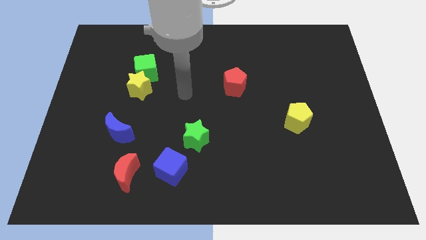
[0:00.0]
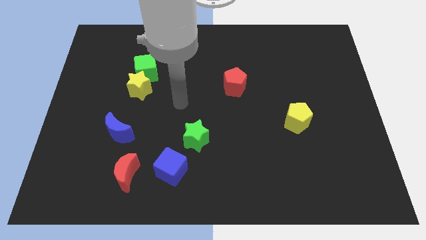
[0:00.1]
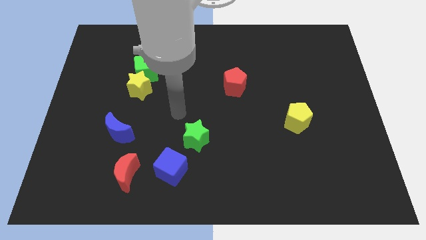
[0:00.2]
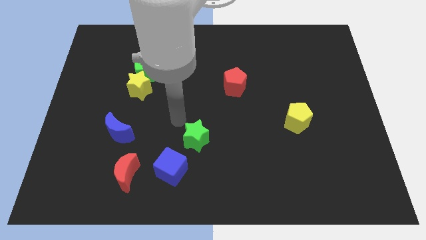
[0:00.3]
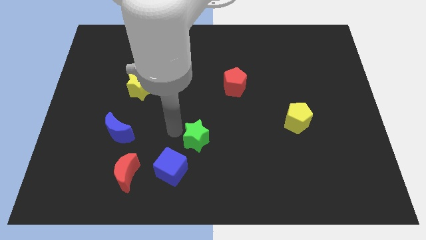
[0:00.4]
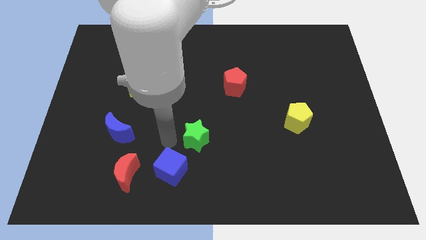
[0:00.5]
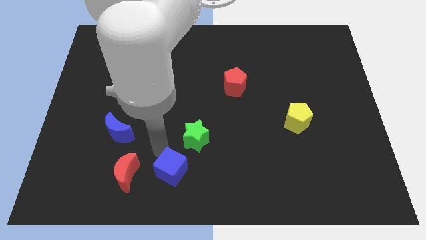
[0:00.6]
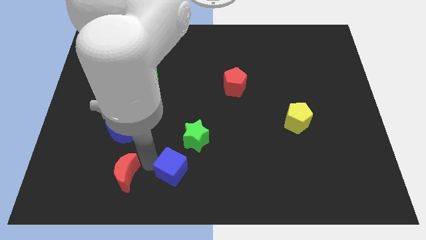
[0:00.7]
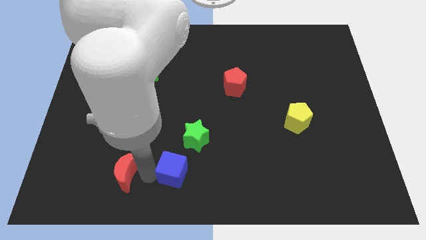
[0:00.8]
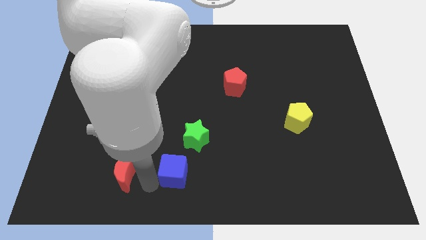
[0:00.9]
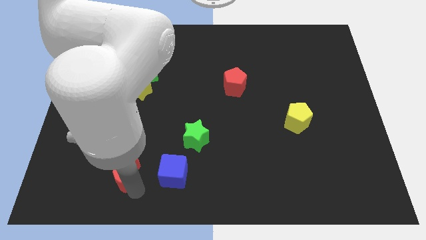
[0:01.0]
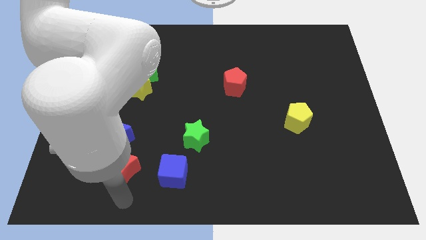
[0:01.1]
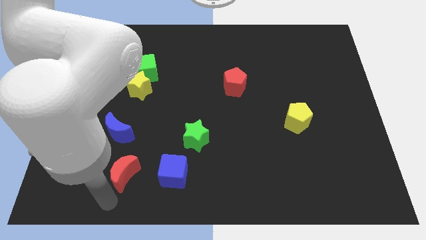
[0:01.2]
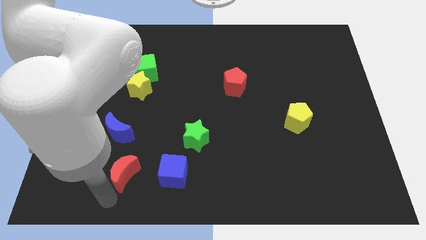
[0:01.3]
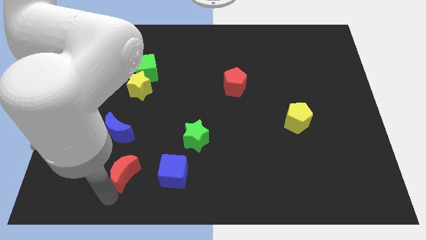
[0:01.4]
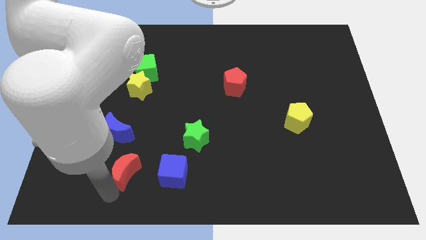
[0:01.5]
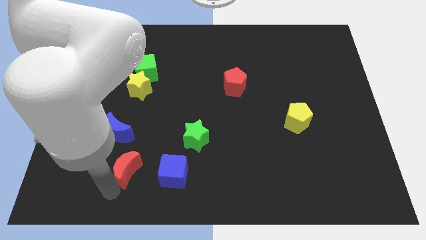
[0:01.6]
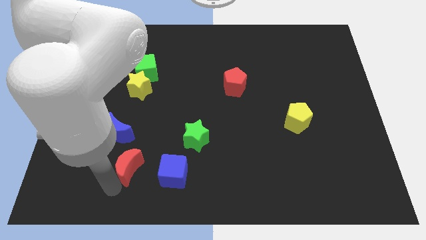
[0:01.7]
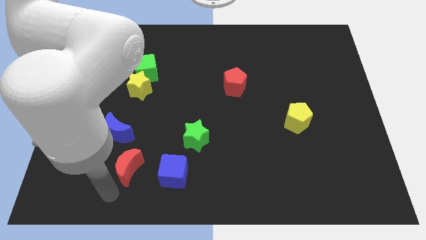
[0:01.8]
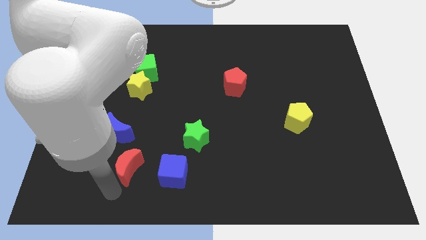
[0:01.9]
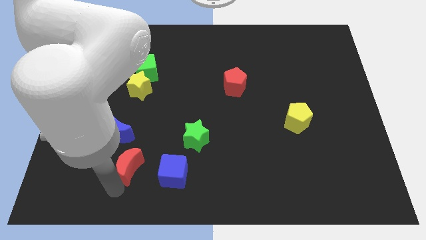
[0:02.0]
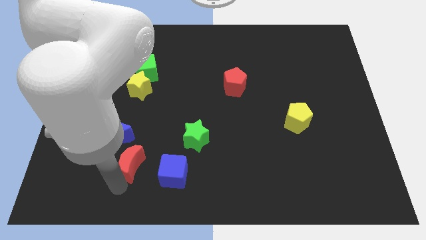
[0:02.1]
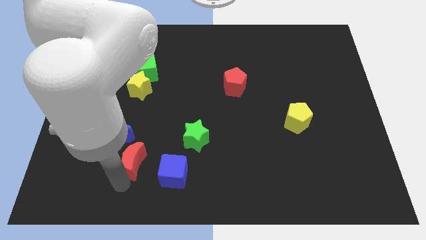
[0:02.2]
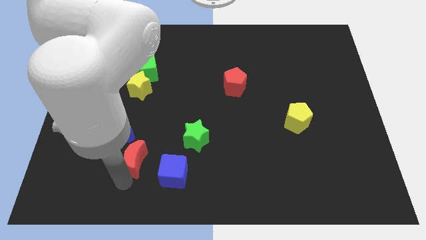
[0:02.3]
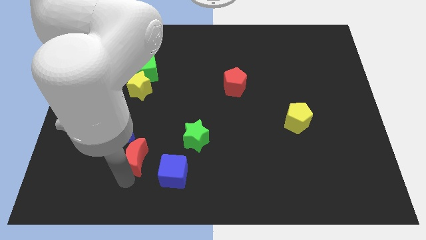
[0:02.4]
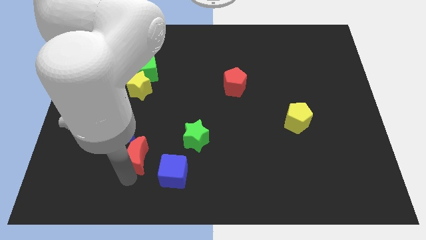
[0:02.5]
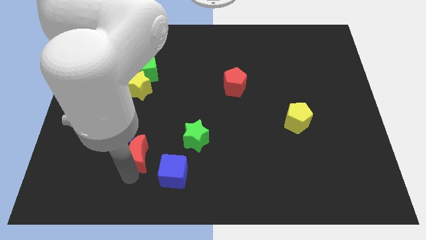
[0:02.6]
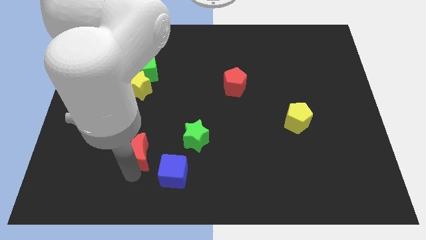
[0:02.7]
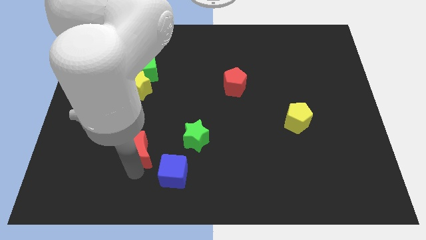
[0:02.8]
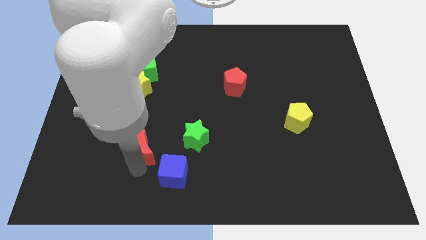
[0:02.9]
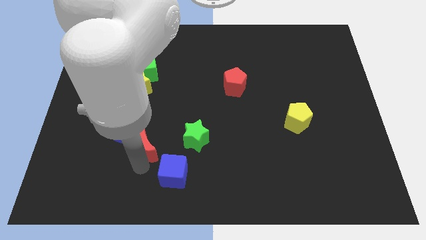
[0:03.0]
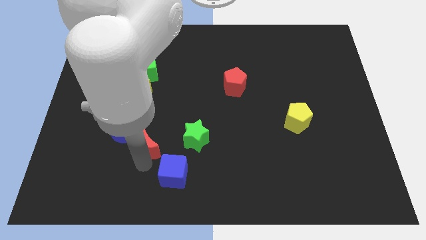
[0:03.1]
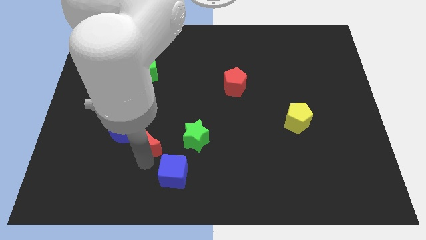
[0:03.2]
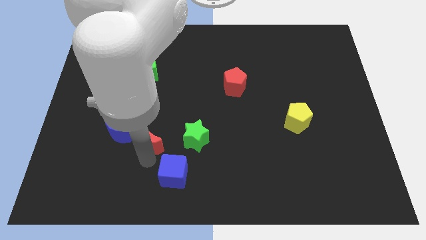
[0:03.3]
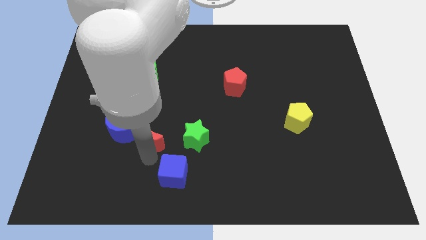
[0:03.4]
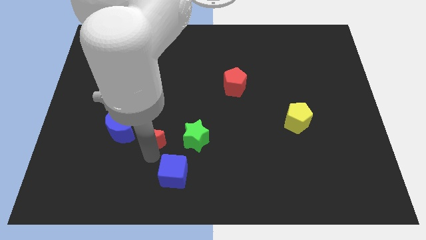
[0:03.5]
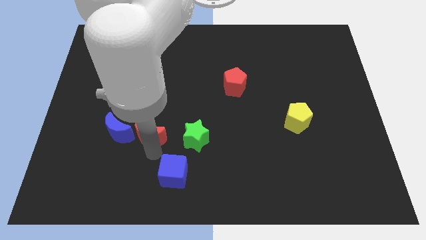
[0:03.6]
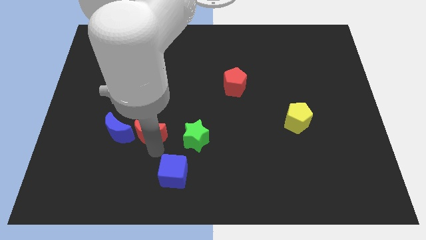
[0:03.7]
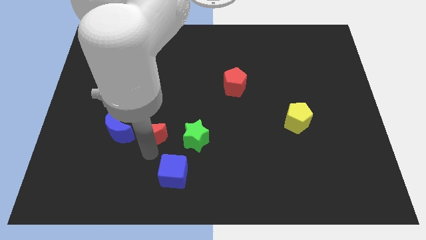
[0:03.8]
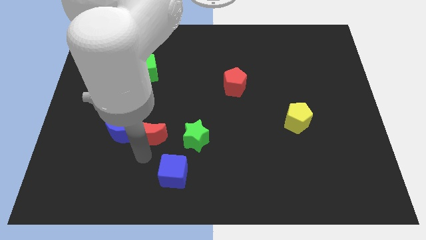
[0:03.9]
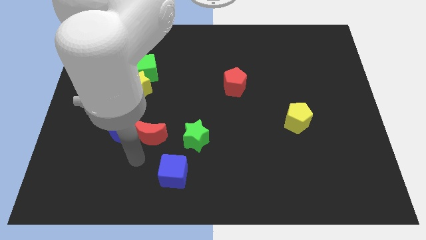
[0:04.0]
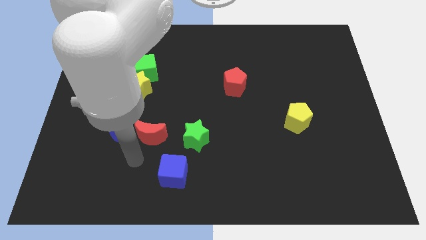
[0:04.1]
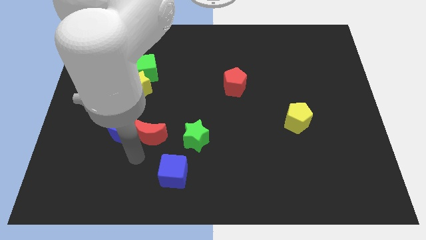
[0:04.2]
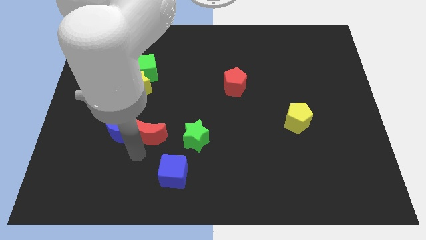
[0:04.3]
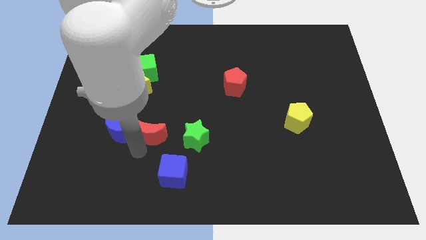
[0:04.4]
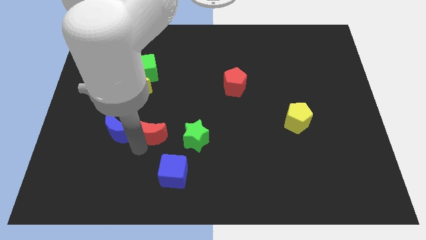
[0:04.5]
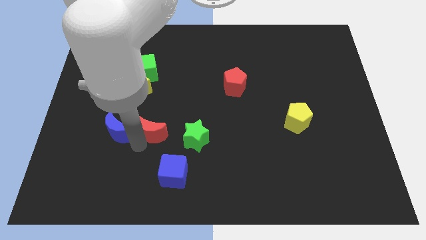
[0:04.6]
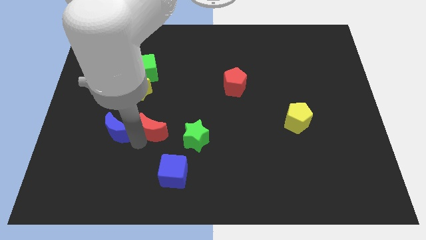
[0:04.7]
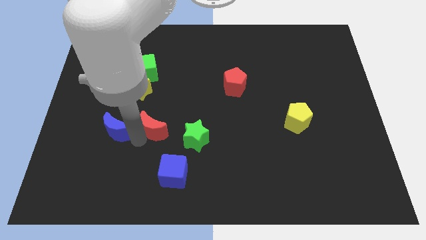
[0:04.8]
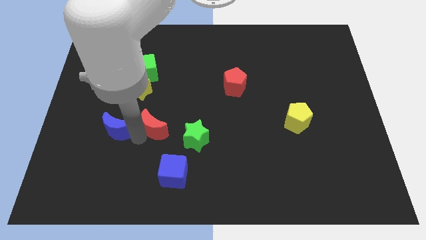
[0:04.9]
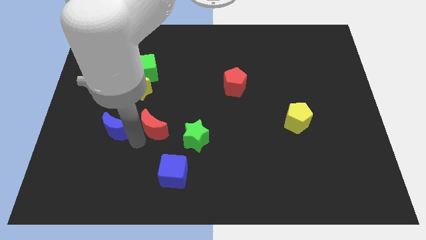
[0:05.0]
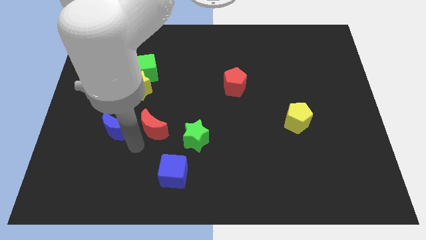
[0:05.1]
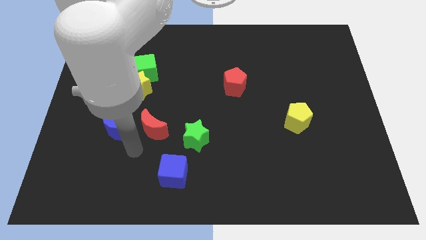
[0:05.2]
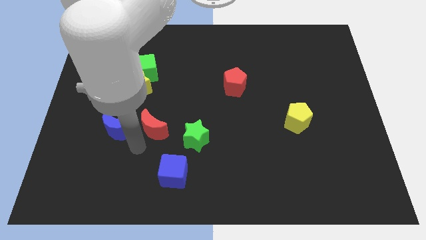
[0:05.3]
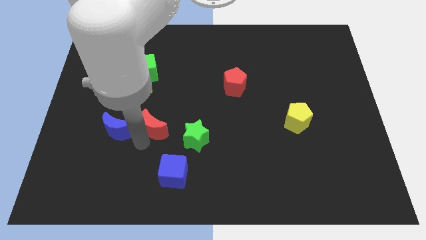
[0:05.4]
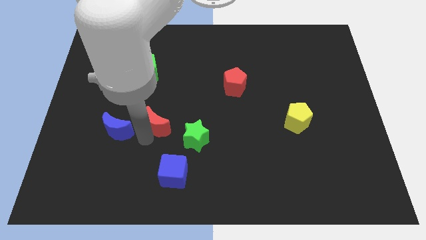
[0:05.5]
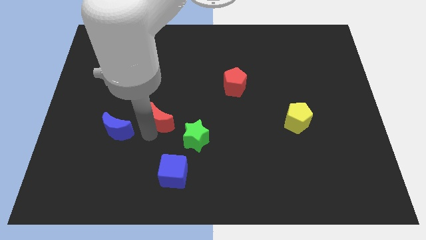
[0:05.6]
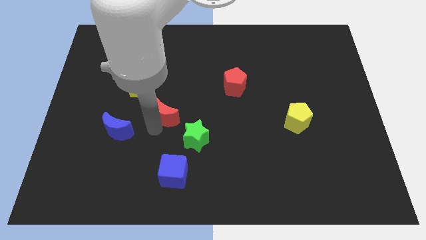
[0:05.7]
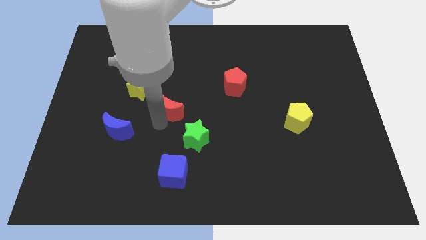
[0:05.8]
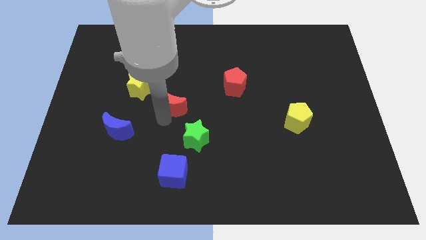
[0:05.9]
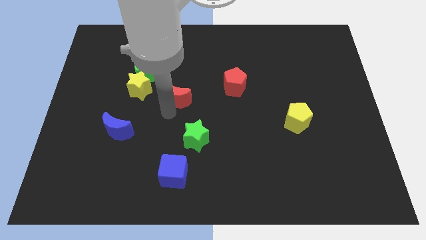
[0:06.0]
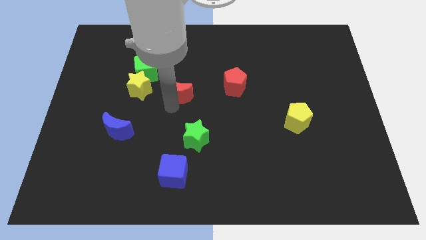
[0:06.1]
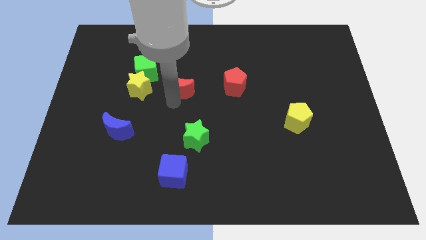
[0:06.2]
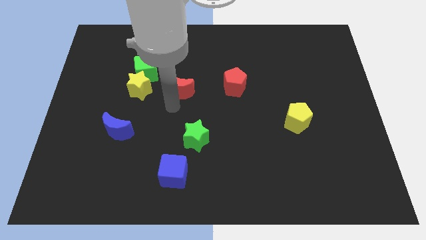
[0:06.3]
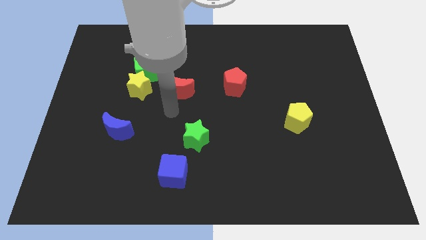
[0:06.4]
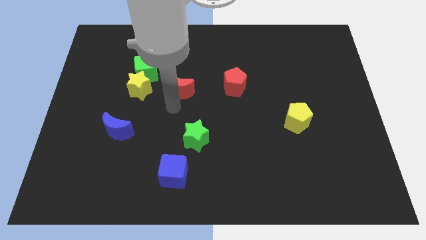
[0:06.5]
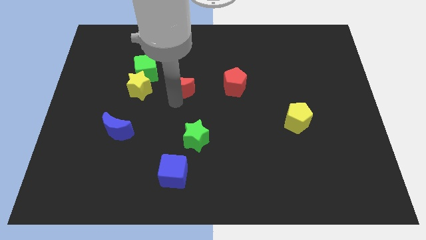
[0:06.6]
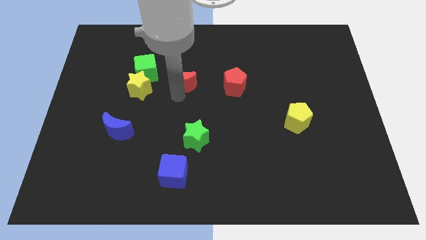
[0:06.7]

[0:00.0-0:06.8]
push the red moon right of the green cube
